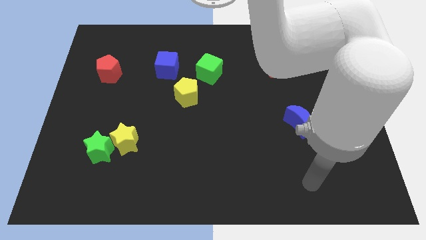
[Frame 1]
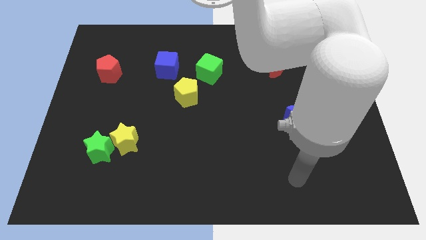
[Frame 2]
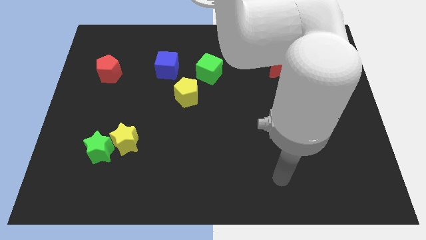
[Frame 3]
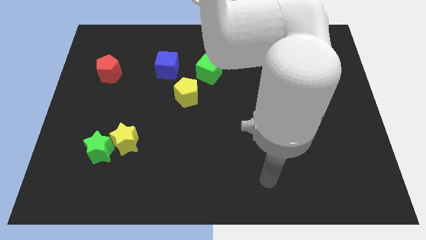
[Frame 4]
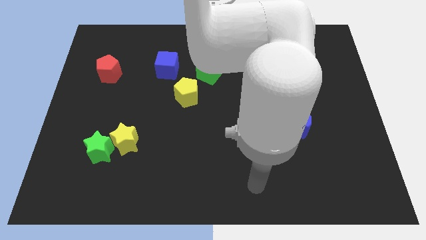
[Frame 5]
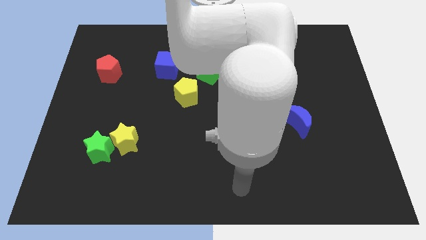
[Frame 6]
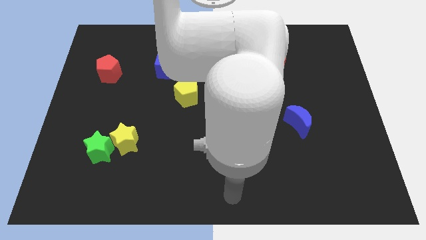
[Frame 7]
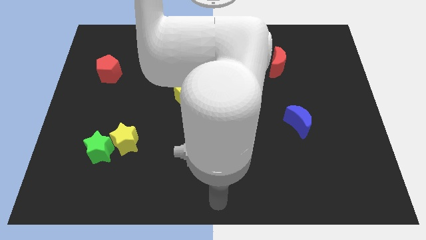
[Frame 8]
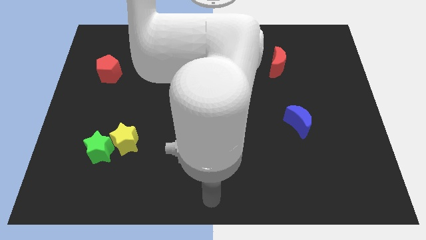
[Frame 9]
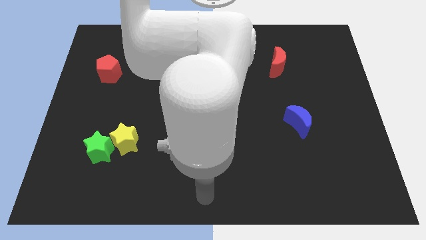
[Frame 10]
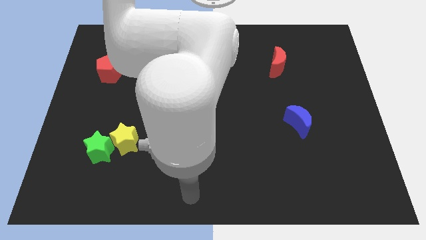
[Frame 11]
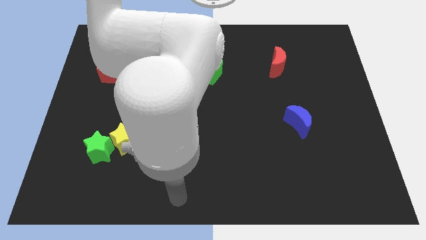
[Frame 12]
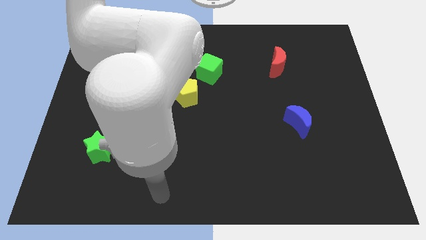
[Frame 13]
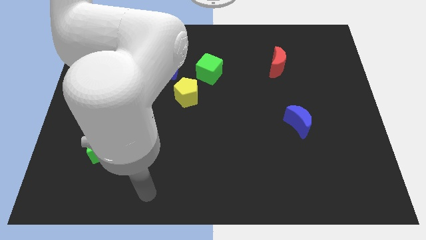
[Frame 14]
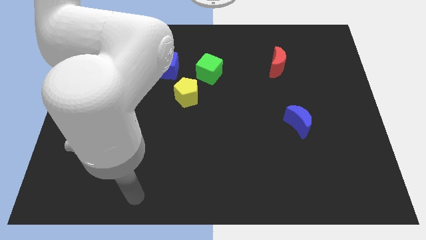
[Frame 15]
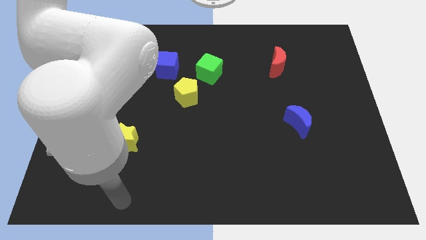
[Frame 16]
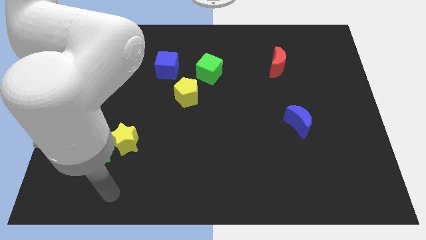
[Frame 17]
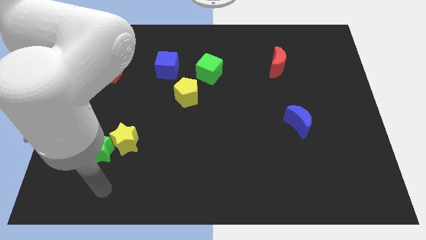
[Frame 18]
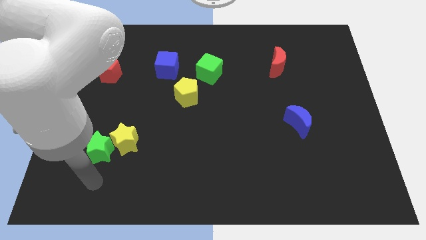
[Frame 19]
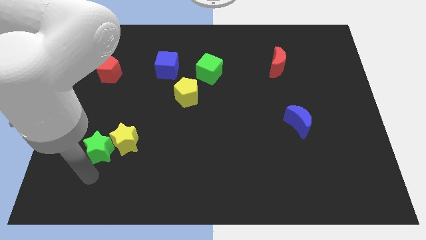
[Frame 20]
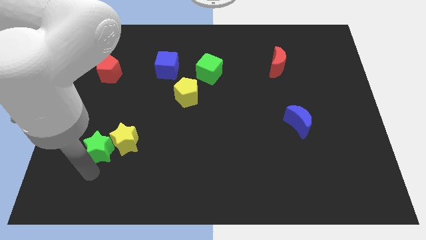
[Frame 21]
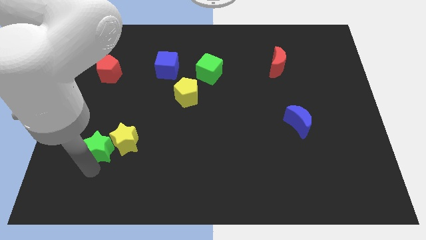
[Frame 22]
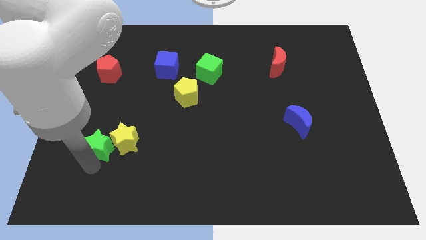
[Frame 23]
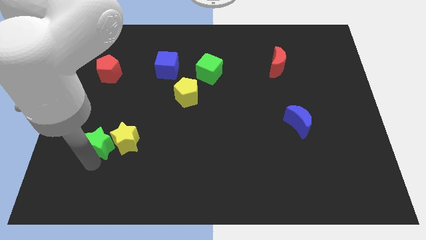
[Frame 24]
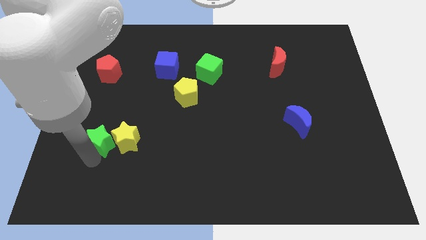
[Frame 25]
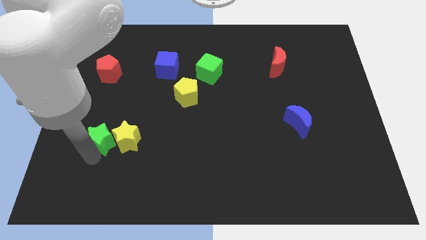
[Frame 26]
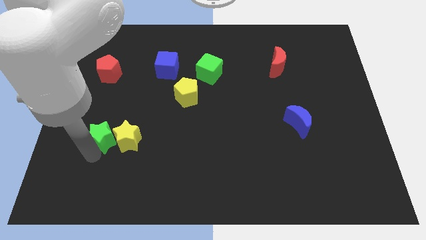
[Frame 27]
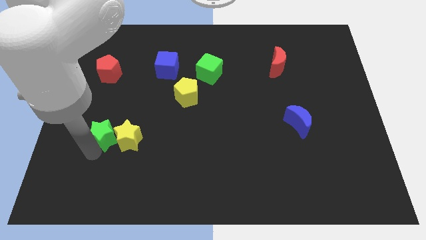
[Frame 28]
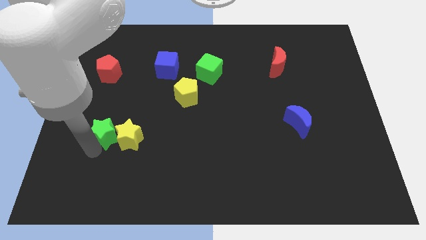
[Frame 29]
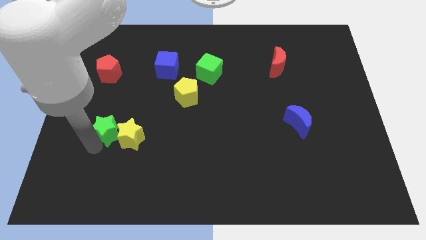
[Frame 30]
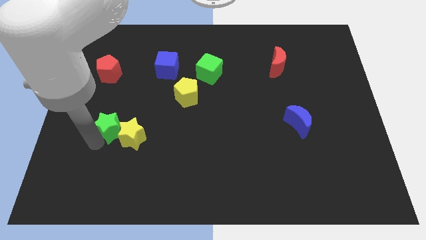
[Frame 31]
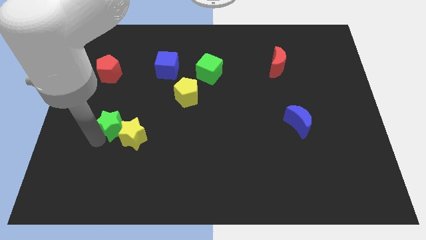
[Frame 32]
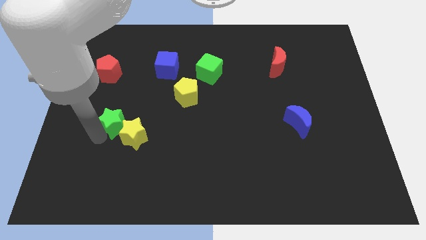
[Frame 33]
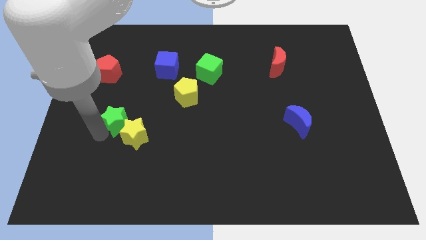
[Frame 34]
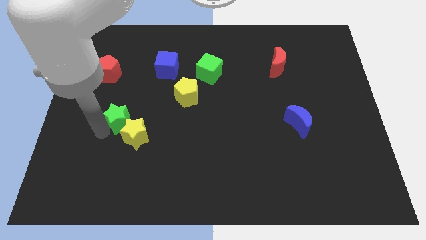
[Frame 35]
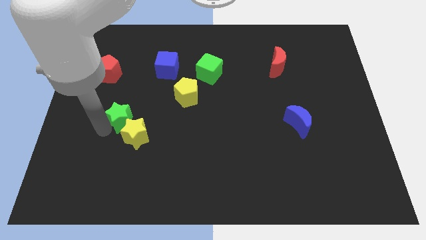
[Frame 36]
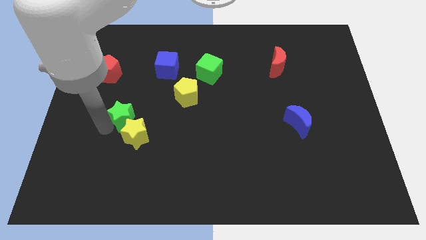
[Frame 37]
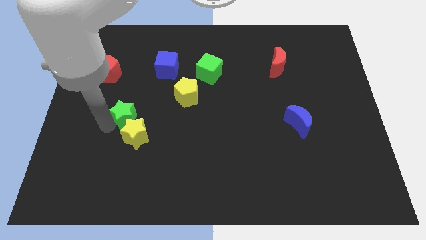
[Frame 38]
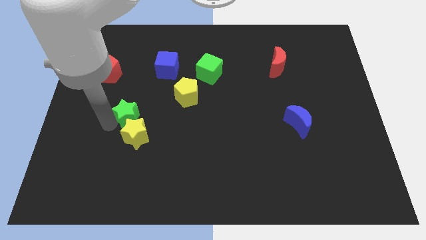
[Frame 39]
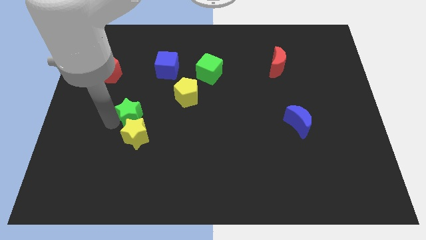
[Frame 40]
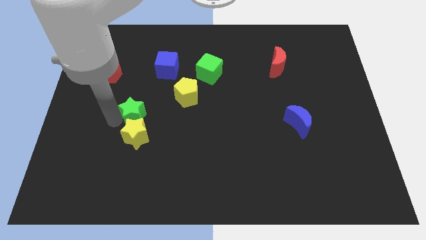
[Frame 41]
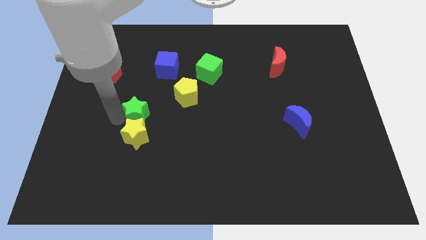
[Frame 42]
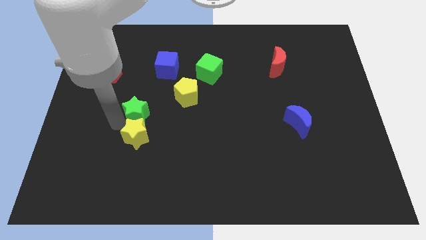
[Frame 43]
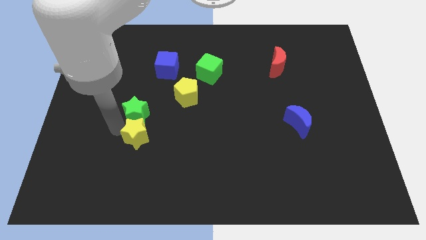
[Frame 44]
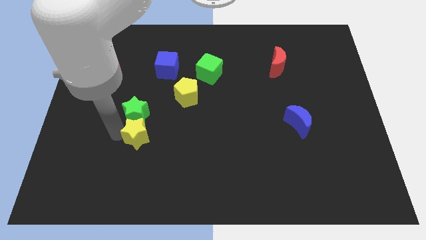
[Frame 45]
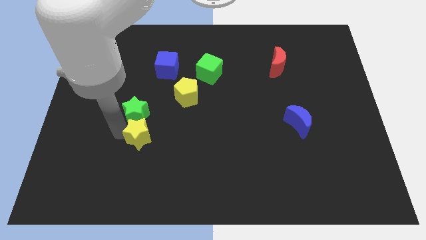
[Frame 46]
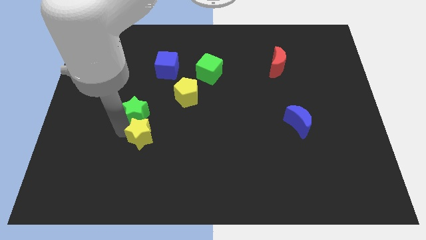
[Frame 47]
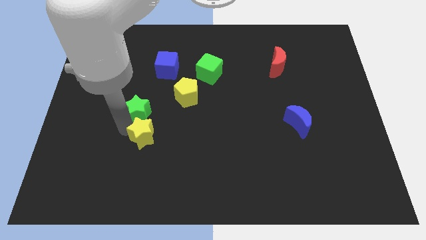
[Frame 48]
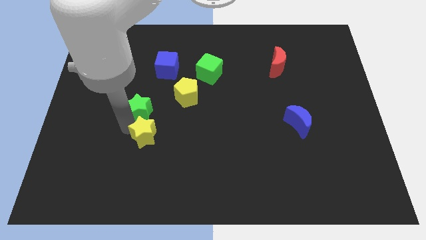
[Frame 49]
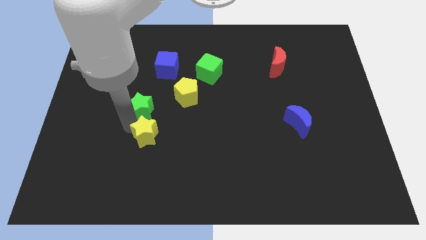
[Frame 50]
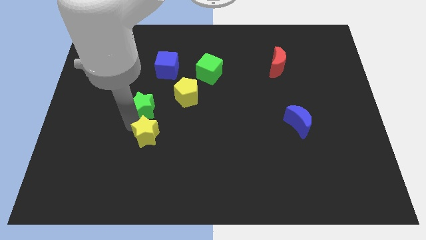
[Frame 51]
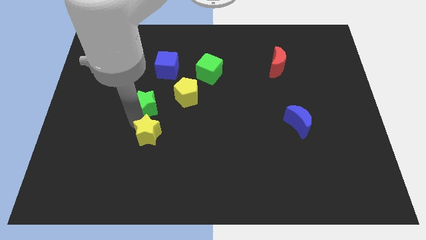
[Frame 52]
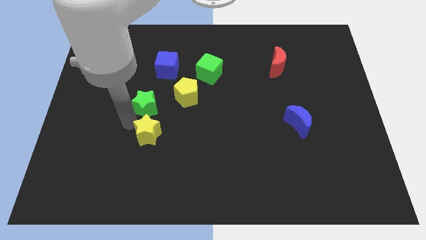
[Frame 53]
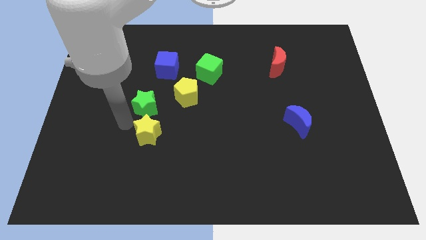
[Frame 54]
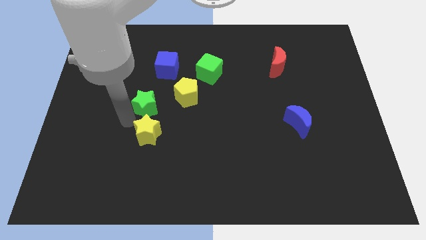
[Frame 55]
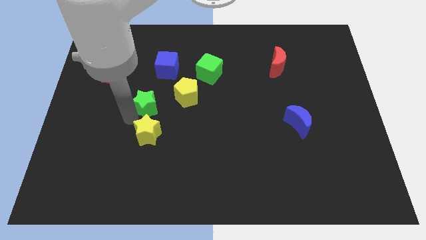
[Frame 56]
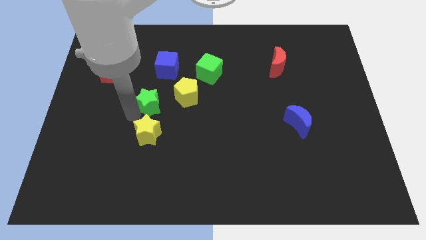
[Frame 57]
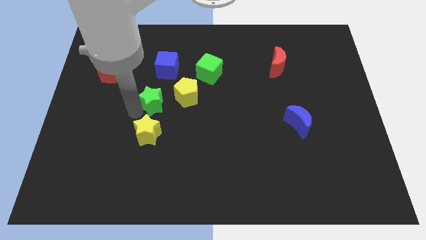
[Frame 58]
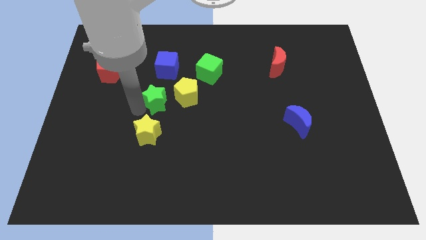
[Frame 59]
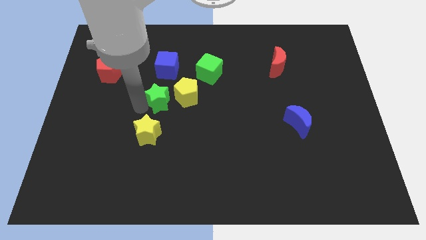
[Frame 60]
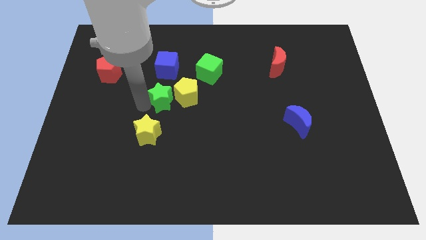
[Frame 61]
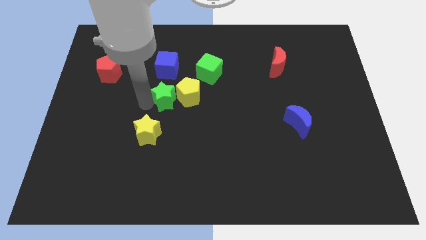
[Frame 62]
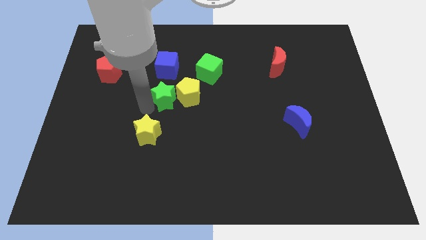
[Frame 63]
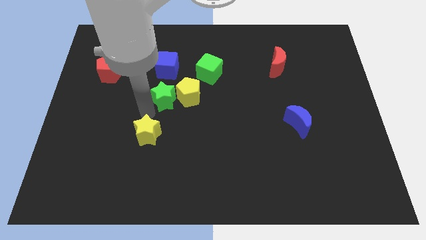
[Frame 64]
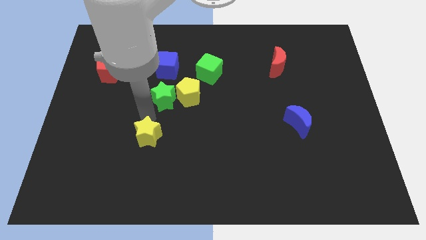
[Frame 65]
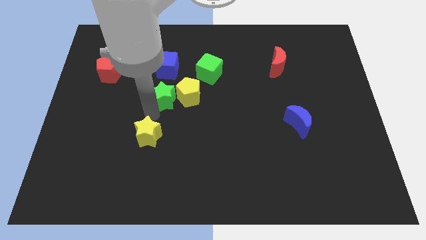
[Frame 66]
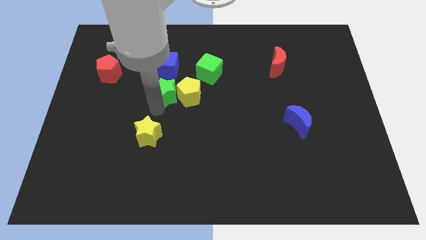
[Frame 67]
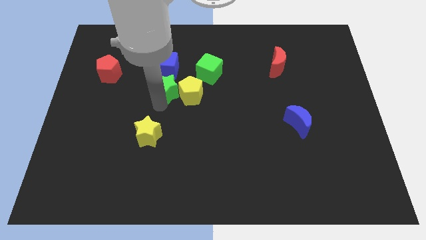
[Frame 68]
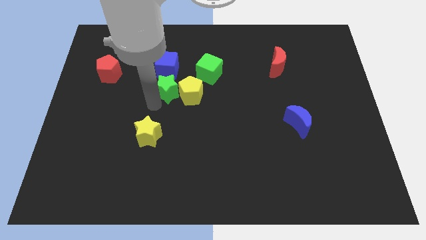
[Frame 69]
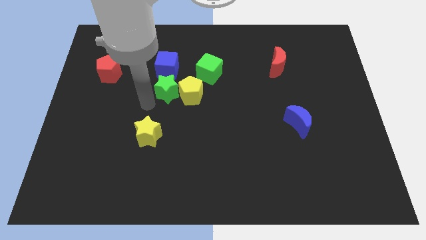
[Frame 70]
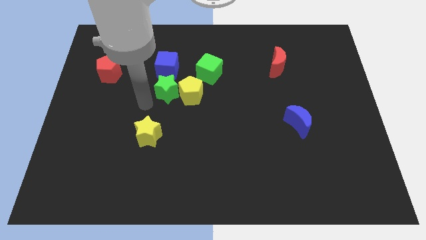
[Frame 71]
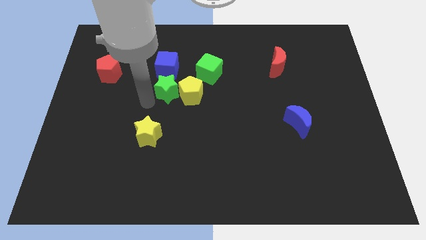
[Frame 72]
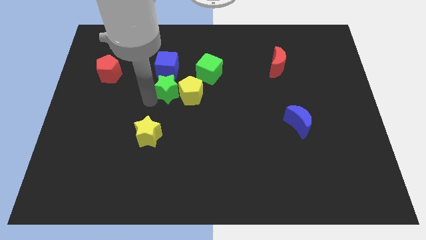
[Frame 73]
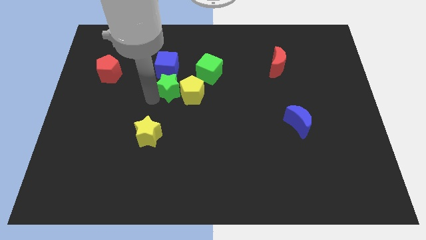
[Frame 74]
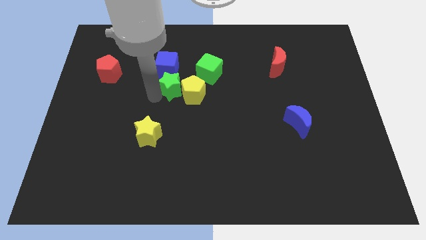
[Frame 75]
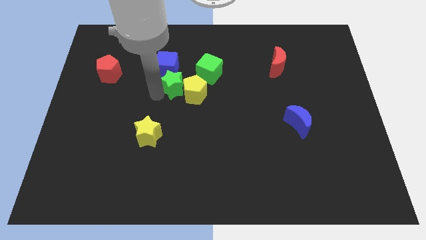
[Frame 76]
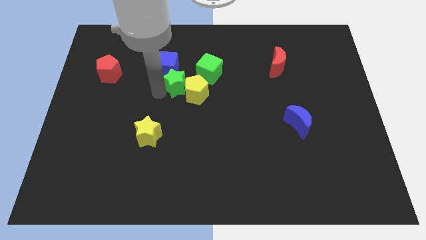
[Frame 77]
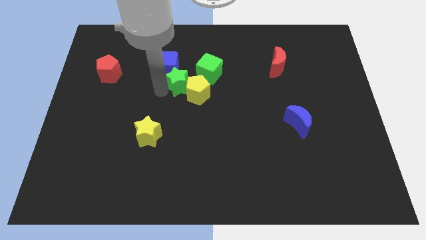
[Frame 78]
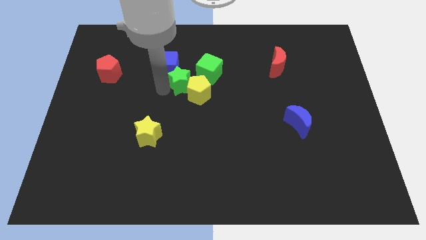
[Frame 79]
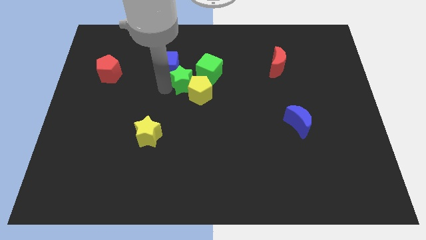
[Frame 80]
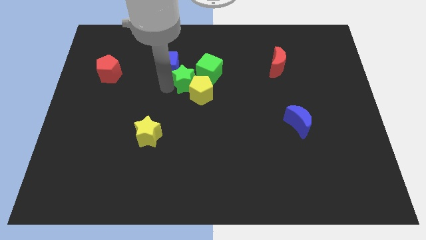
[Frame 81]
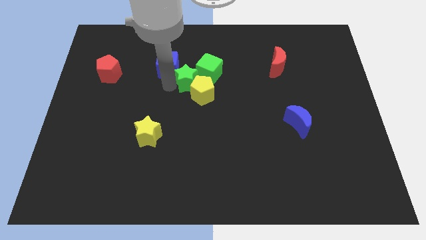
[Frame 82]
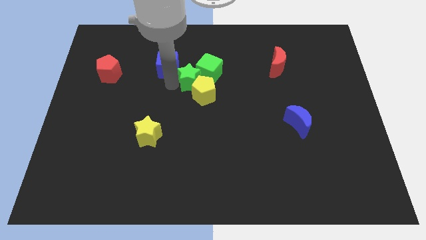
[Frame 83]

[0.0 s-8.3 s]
move the green star next to the green cube
